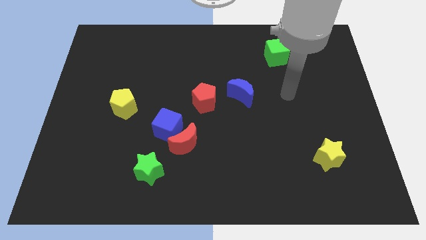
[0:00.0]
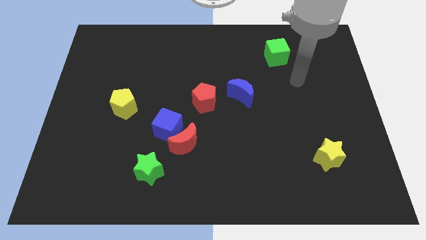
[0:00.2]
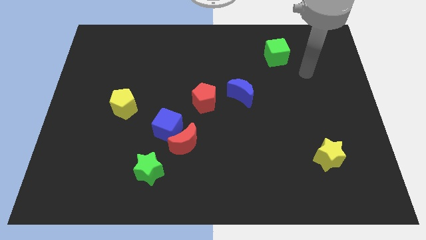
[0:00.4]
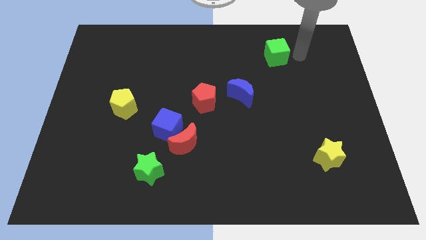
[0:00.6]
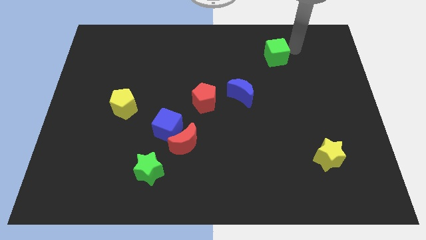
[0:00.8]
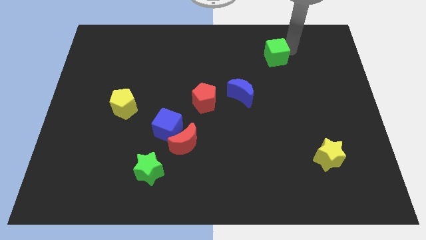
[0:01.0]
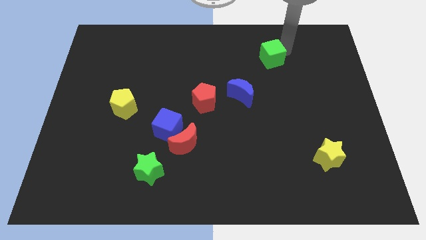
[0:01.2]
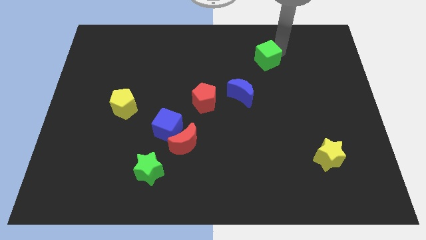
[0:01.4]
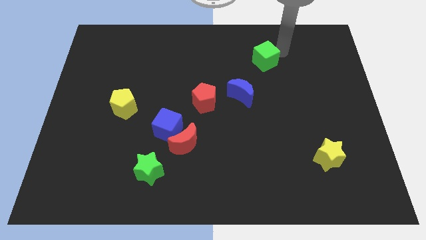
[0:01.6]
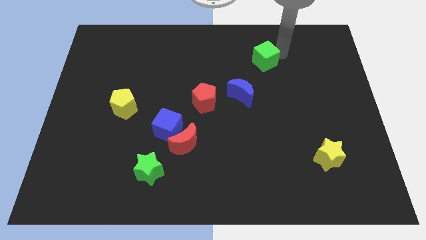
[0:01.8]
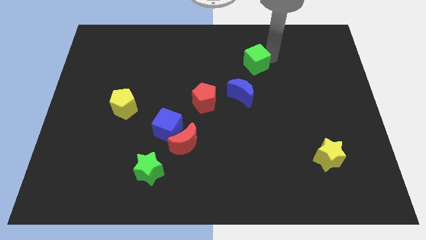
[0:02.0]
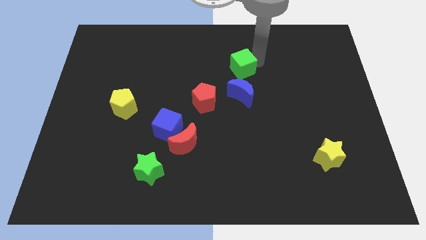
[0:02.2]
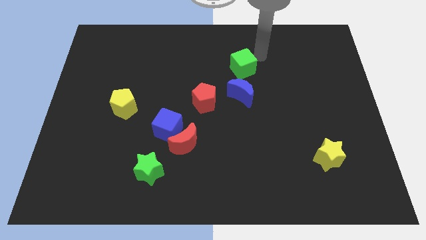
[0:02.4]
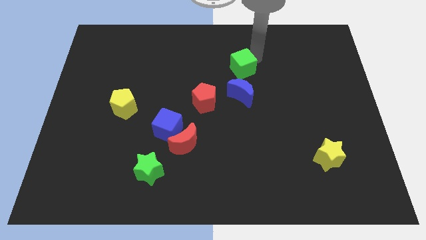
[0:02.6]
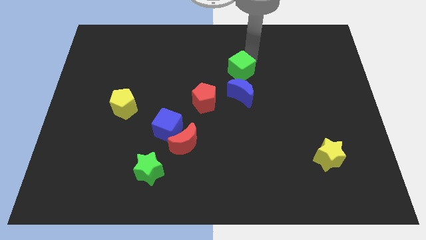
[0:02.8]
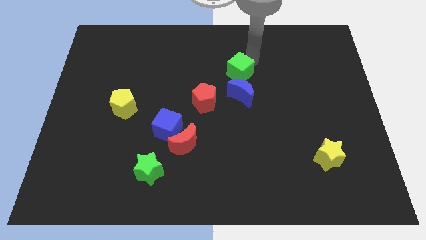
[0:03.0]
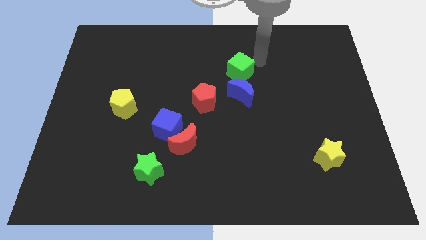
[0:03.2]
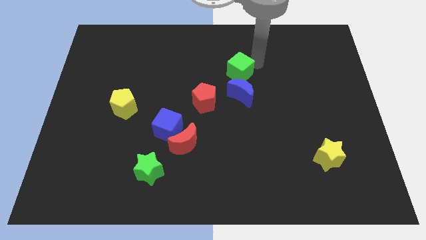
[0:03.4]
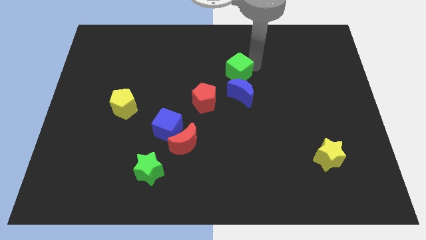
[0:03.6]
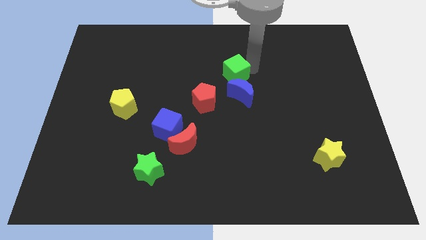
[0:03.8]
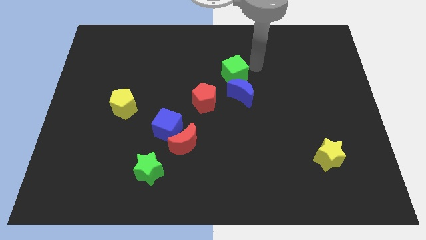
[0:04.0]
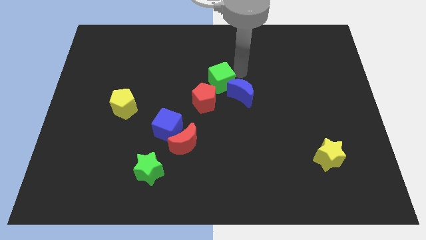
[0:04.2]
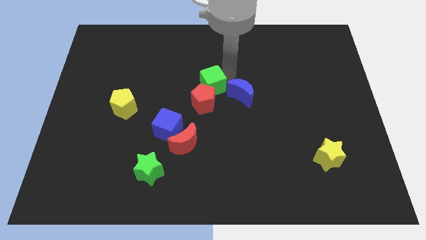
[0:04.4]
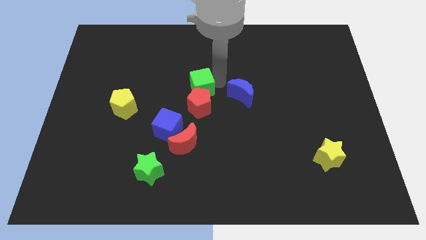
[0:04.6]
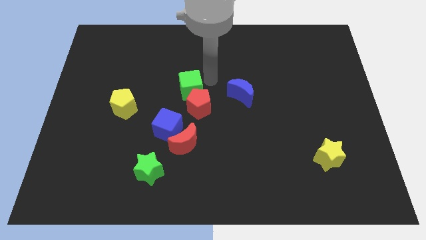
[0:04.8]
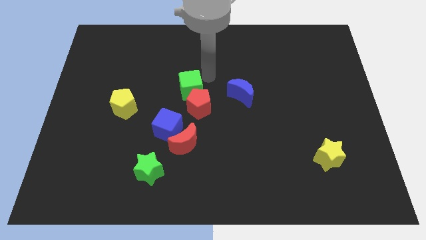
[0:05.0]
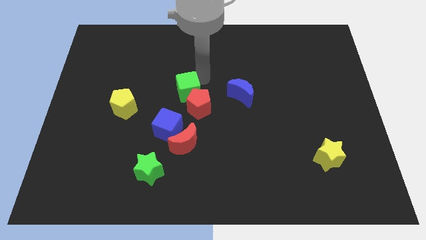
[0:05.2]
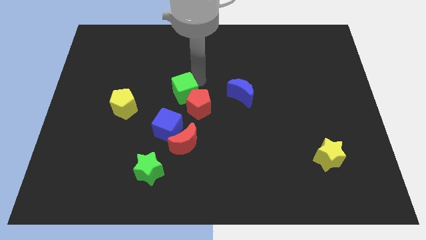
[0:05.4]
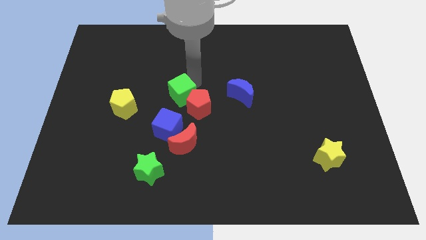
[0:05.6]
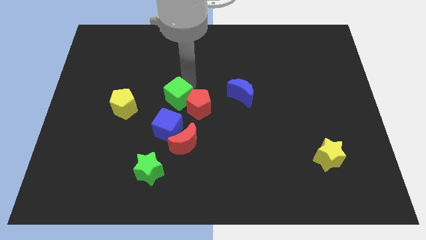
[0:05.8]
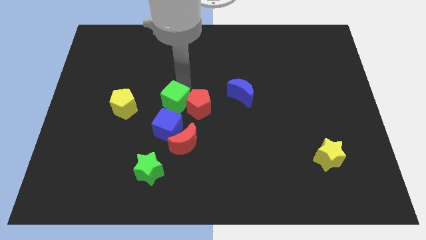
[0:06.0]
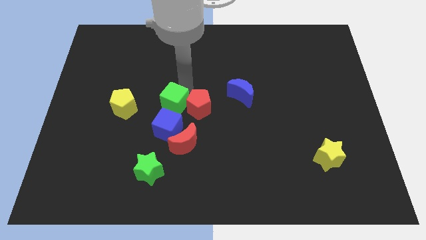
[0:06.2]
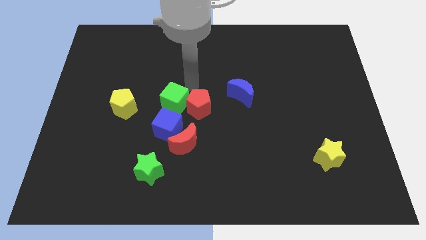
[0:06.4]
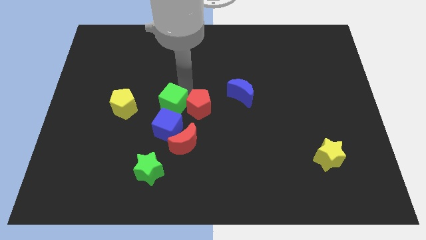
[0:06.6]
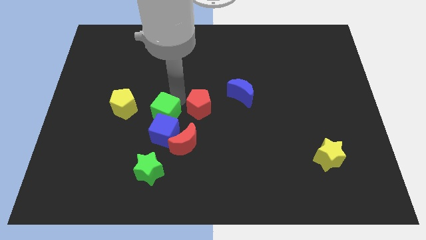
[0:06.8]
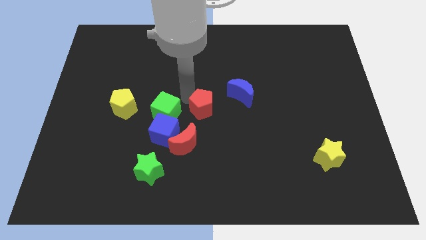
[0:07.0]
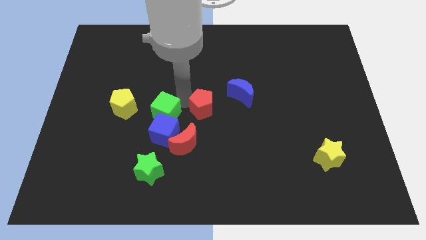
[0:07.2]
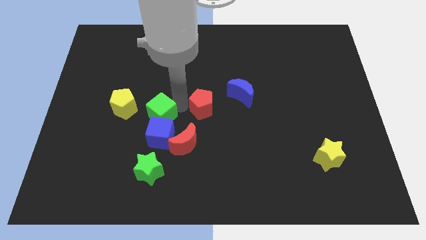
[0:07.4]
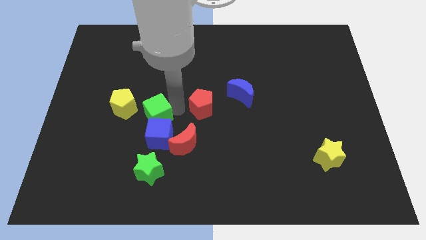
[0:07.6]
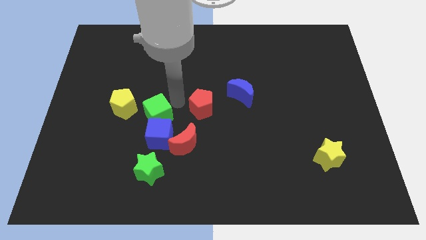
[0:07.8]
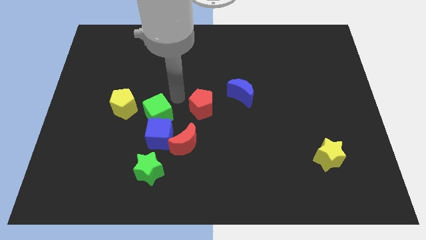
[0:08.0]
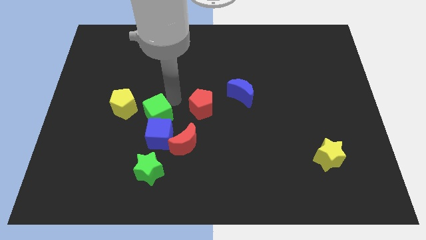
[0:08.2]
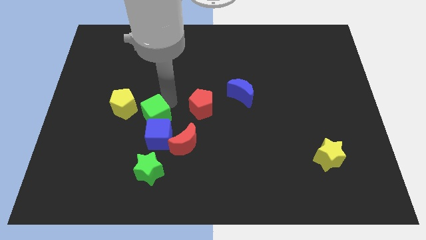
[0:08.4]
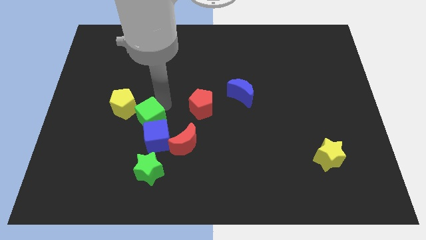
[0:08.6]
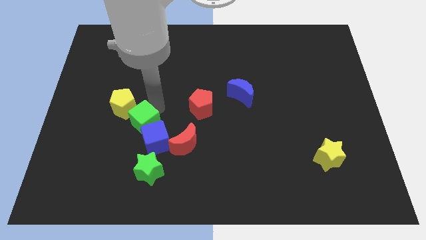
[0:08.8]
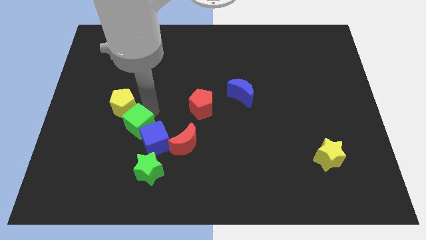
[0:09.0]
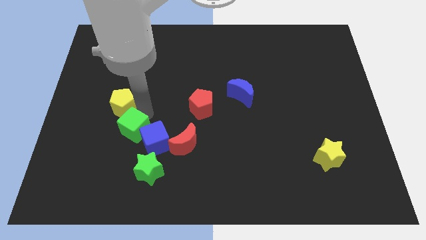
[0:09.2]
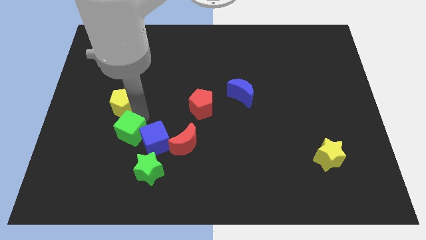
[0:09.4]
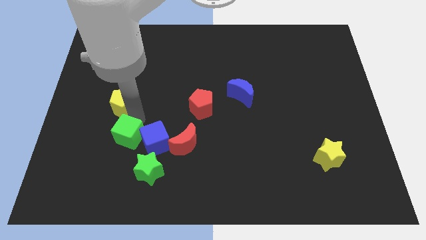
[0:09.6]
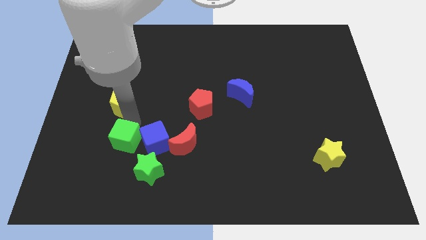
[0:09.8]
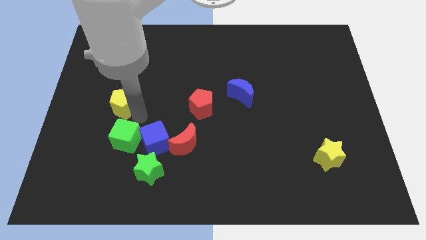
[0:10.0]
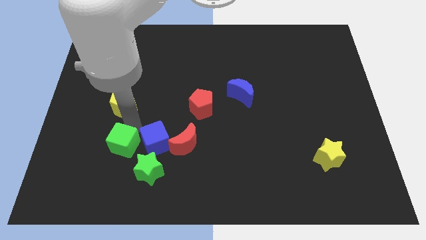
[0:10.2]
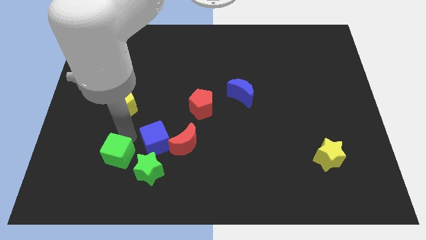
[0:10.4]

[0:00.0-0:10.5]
push the green cube left of the green star

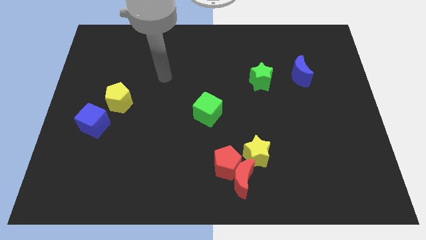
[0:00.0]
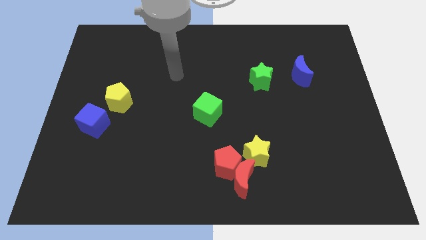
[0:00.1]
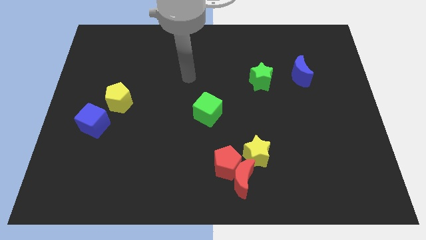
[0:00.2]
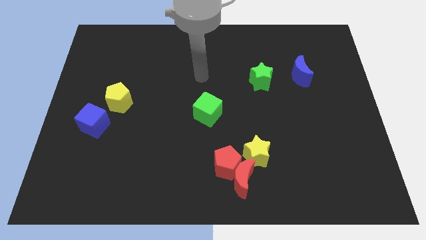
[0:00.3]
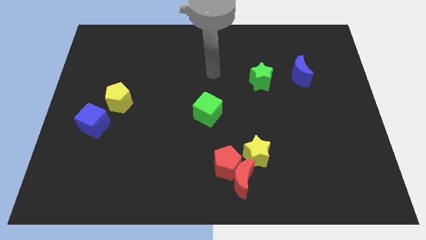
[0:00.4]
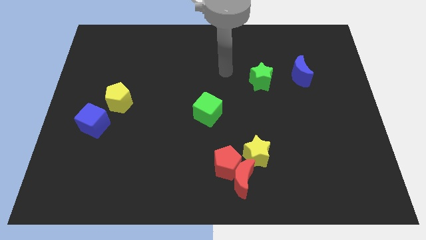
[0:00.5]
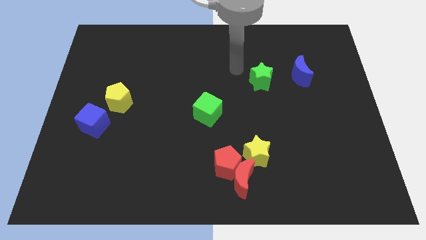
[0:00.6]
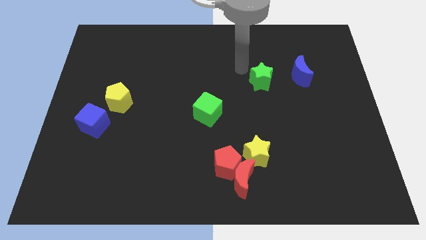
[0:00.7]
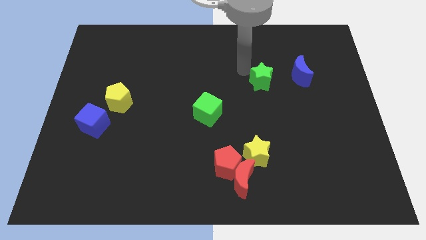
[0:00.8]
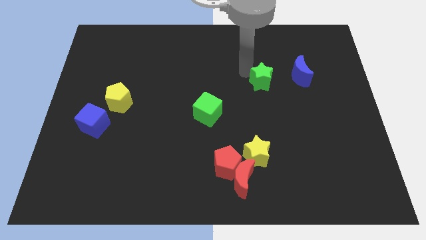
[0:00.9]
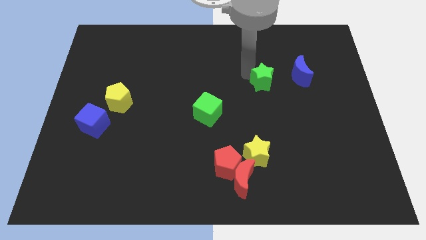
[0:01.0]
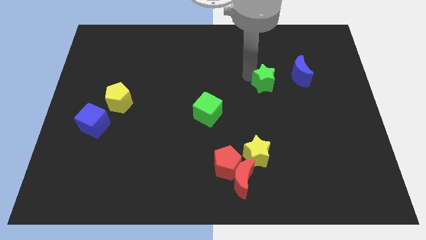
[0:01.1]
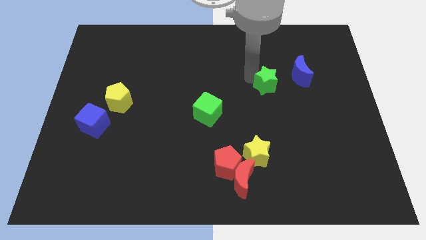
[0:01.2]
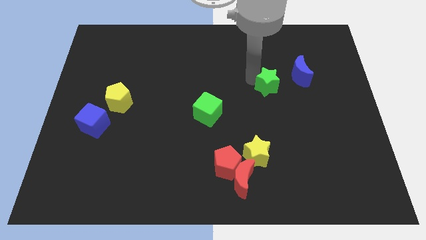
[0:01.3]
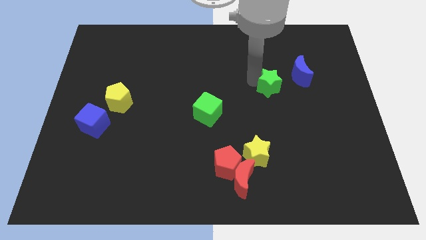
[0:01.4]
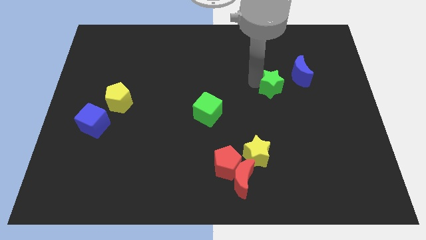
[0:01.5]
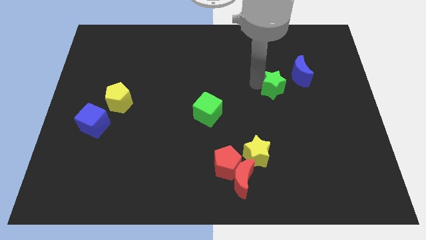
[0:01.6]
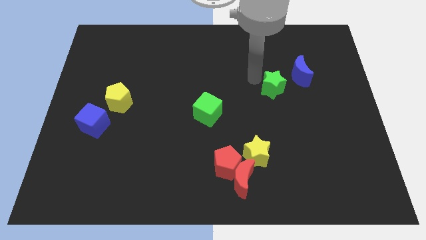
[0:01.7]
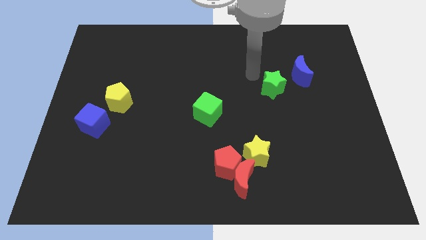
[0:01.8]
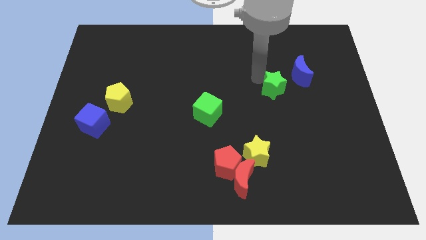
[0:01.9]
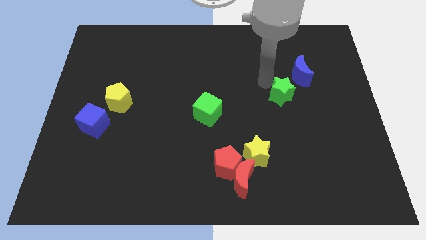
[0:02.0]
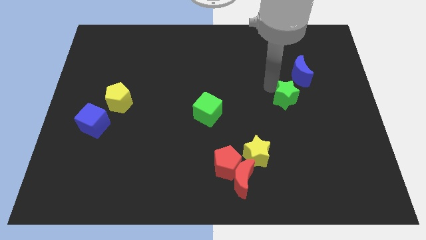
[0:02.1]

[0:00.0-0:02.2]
put the green star below the blue moon

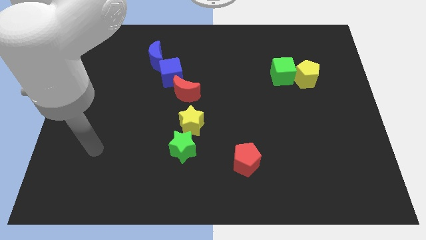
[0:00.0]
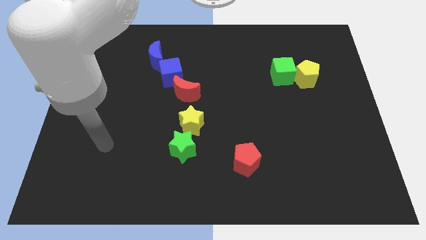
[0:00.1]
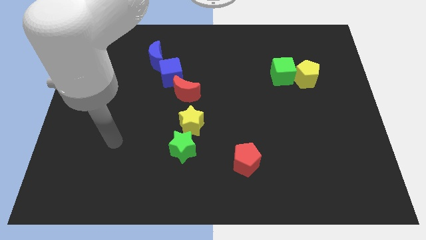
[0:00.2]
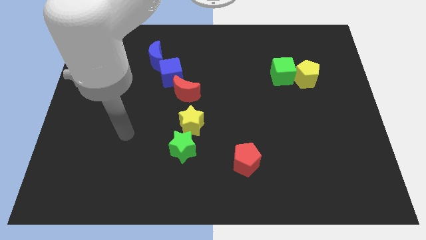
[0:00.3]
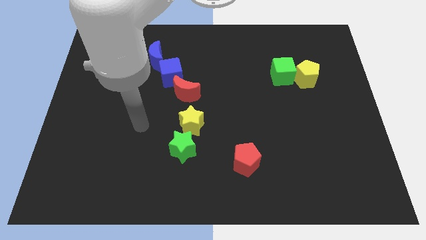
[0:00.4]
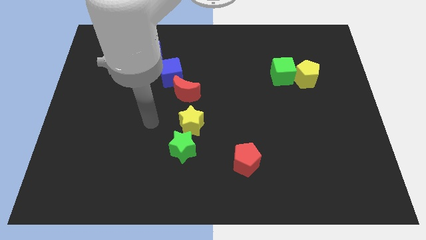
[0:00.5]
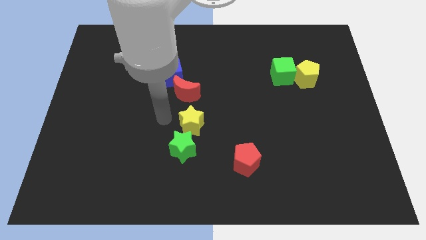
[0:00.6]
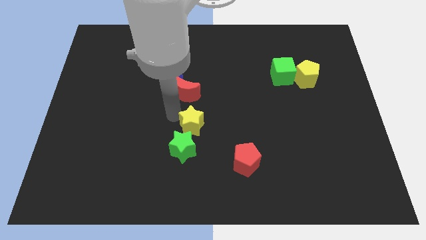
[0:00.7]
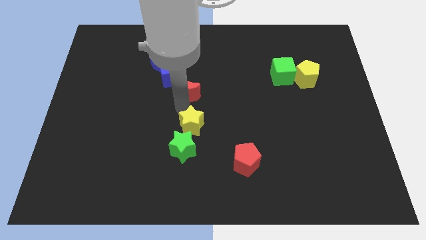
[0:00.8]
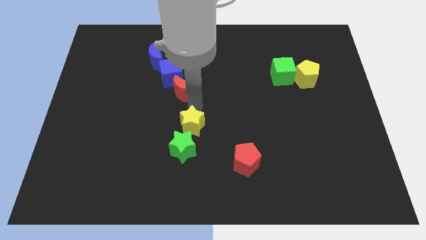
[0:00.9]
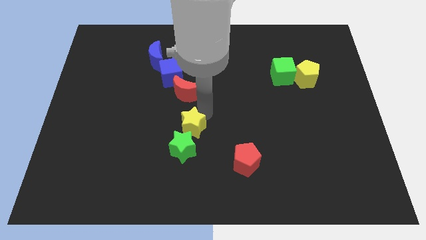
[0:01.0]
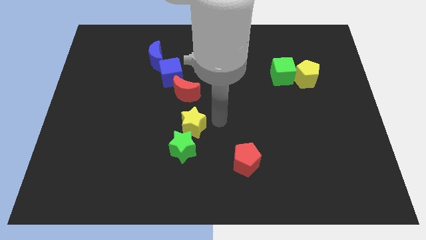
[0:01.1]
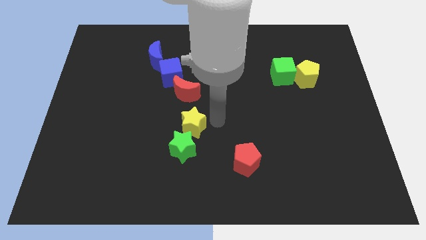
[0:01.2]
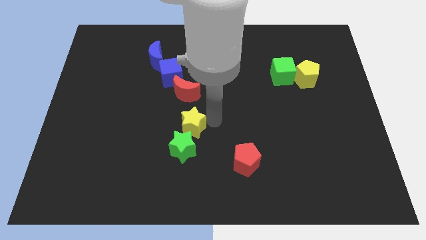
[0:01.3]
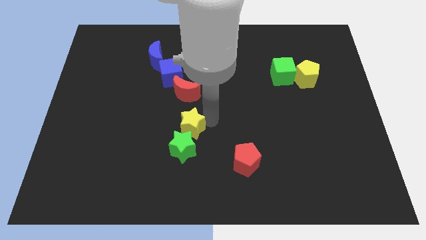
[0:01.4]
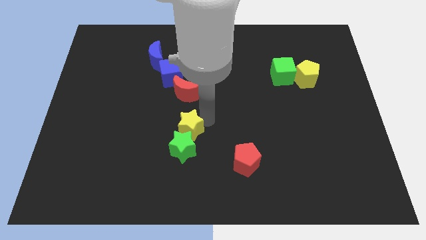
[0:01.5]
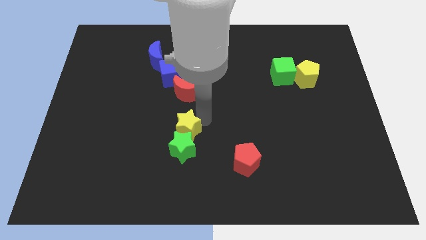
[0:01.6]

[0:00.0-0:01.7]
push the yellow star to the top left of the green star
